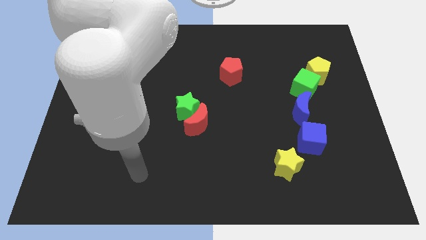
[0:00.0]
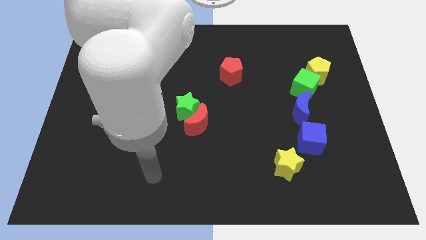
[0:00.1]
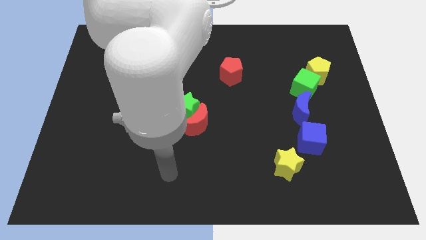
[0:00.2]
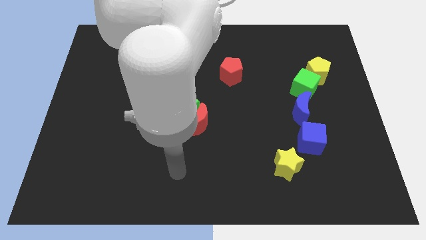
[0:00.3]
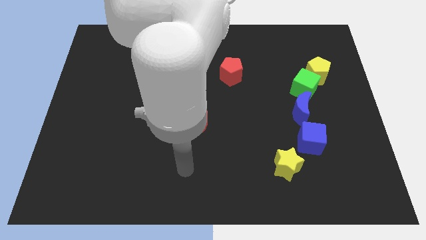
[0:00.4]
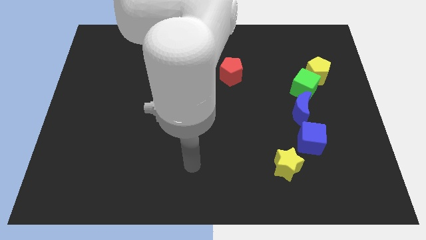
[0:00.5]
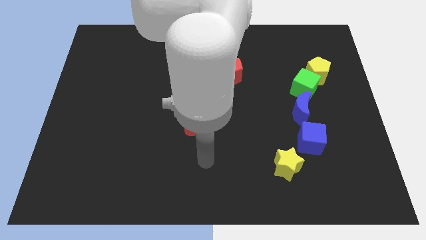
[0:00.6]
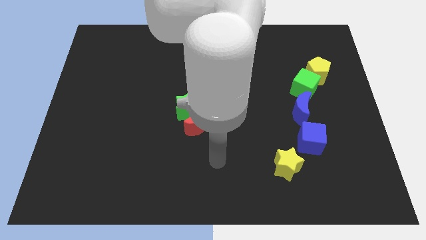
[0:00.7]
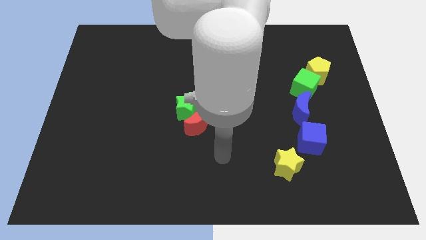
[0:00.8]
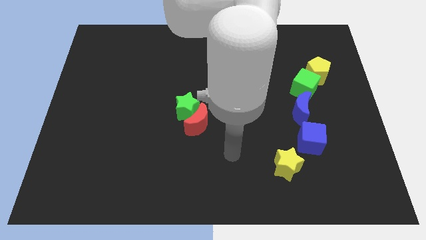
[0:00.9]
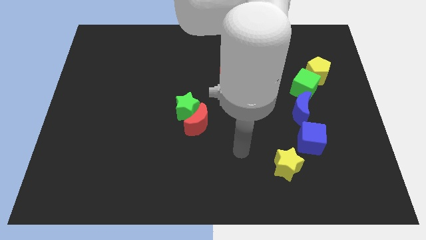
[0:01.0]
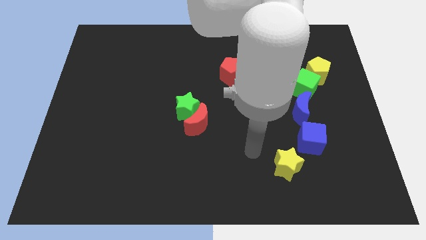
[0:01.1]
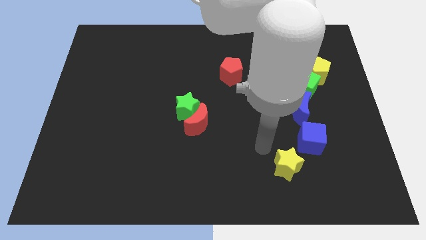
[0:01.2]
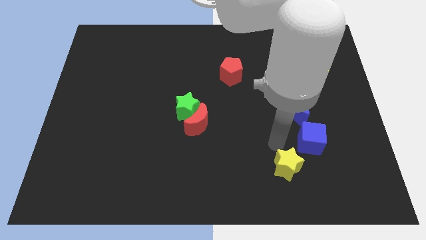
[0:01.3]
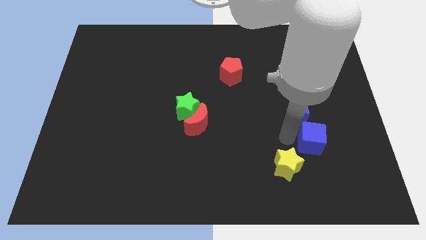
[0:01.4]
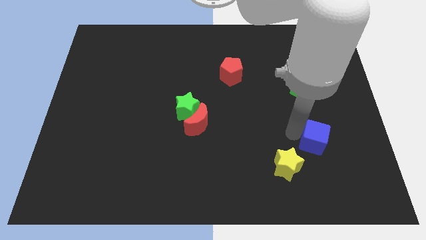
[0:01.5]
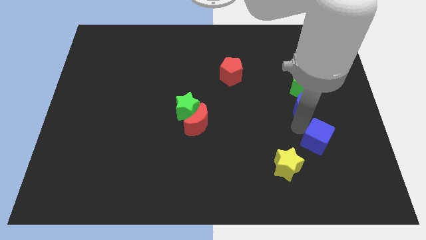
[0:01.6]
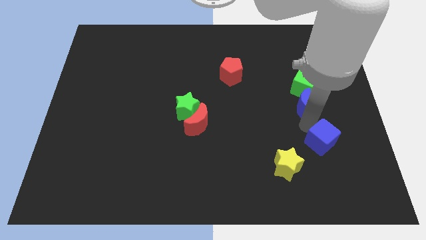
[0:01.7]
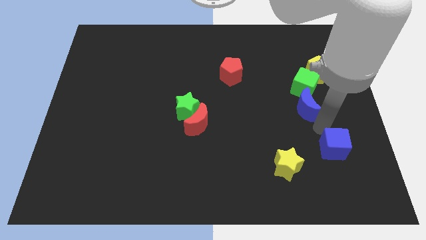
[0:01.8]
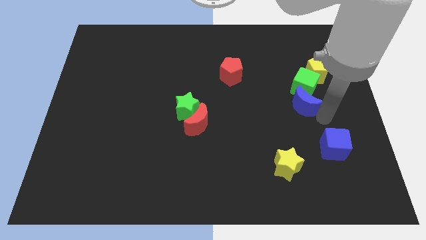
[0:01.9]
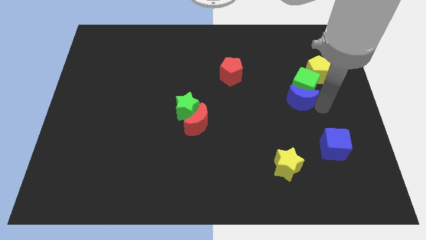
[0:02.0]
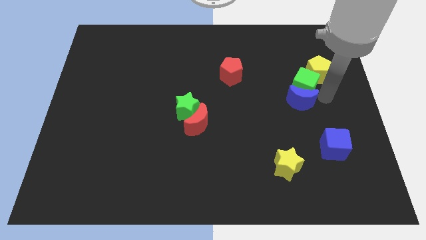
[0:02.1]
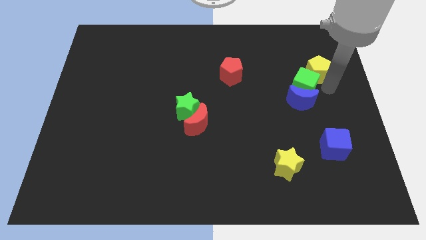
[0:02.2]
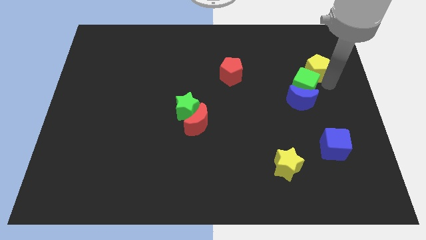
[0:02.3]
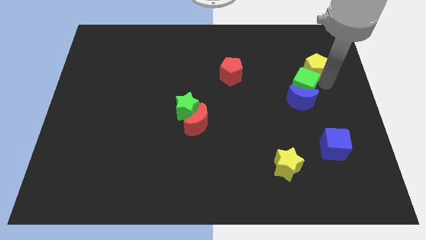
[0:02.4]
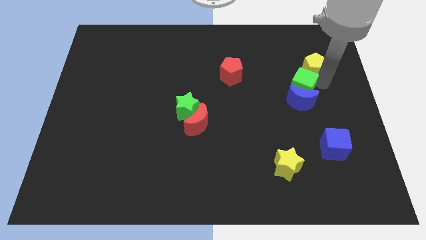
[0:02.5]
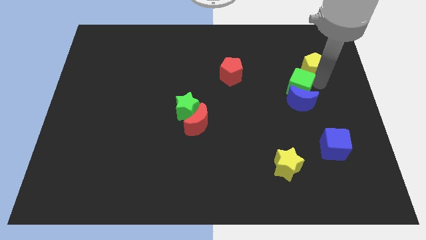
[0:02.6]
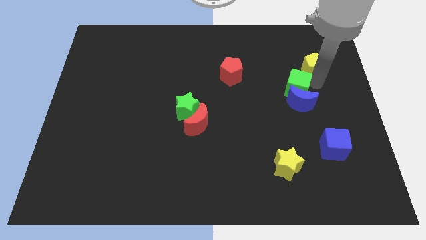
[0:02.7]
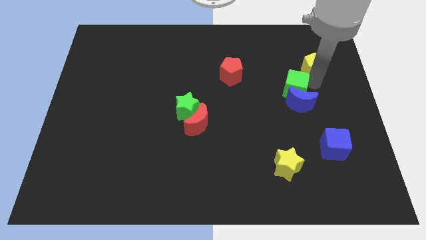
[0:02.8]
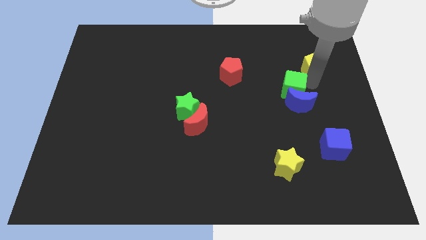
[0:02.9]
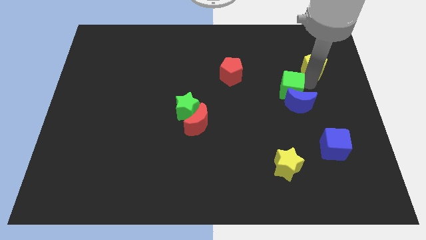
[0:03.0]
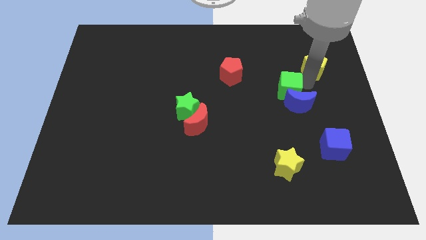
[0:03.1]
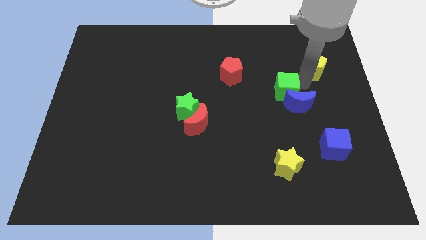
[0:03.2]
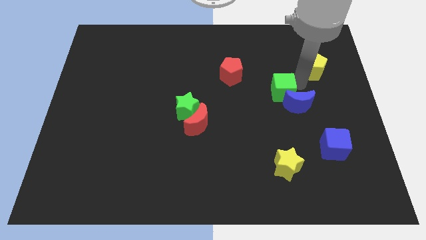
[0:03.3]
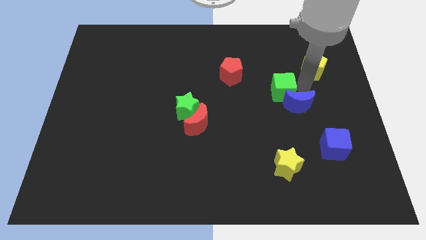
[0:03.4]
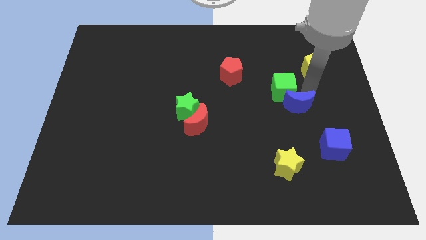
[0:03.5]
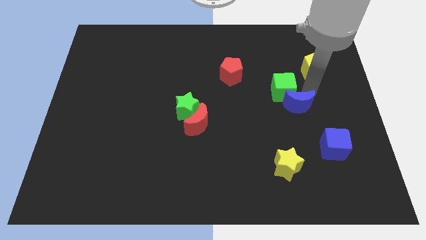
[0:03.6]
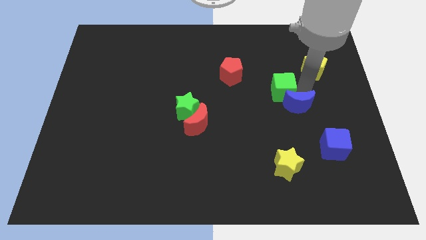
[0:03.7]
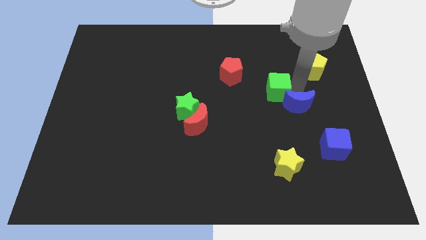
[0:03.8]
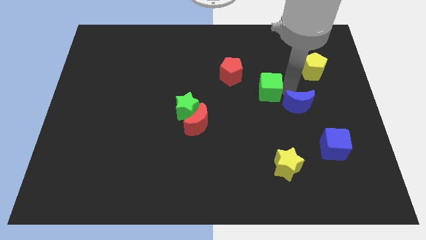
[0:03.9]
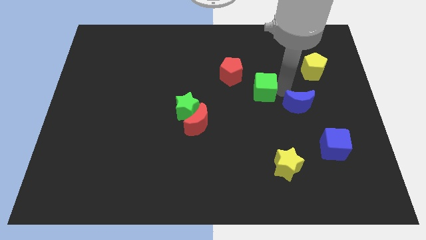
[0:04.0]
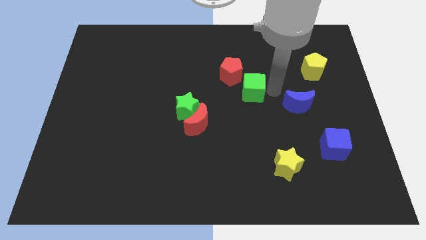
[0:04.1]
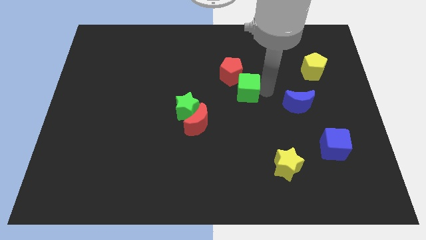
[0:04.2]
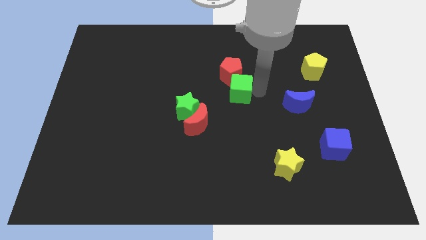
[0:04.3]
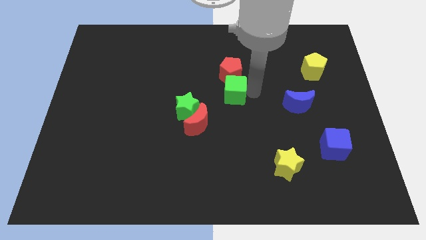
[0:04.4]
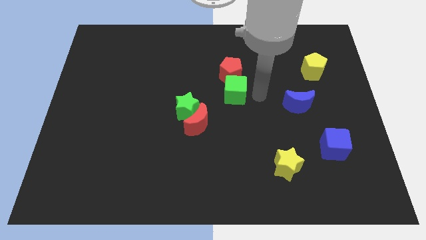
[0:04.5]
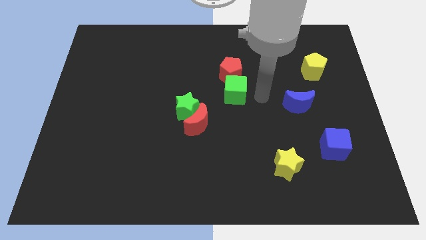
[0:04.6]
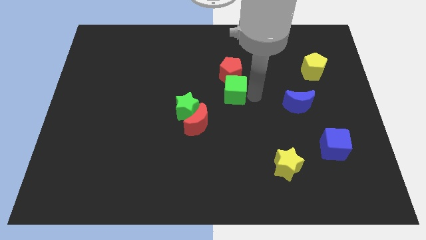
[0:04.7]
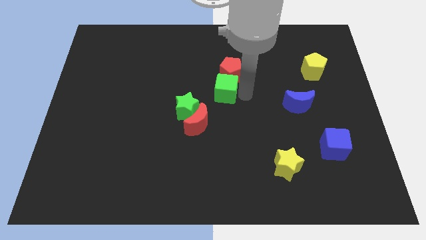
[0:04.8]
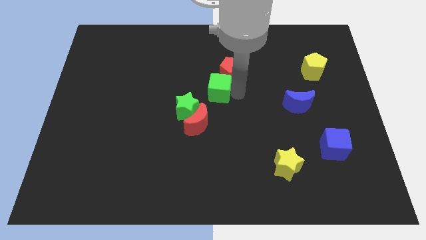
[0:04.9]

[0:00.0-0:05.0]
push the green cube left

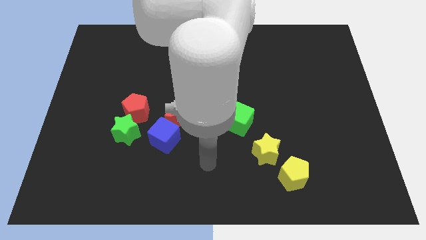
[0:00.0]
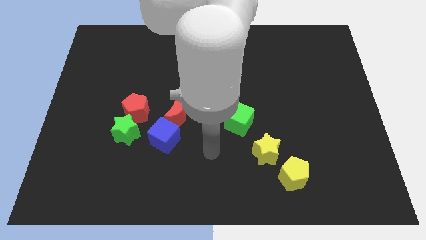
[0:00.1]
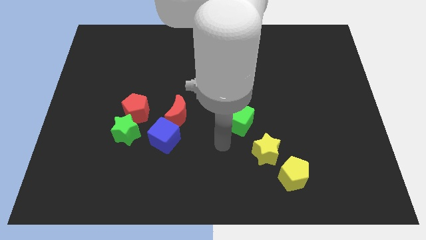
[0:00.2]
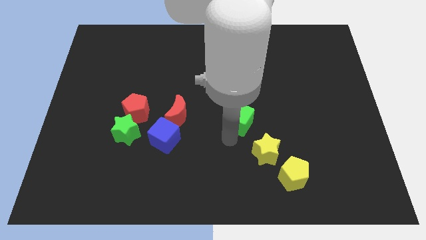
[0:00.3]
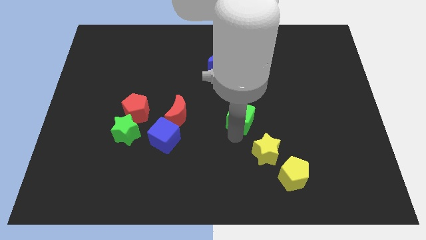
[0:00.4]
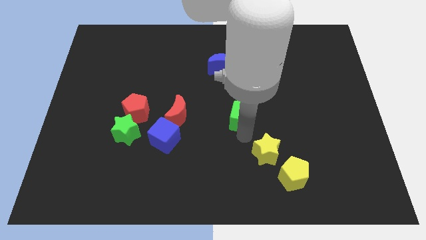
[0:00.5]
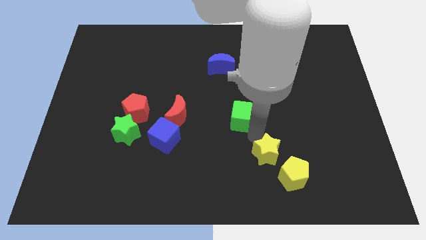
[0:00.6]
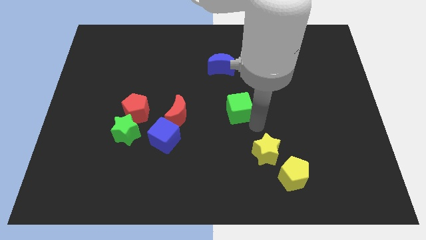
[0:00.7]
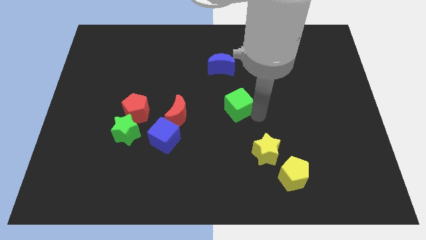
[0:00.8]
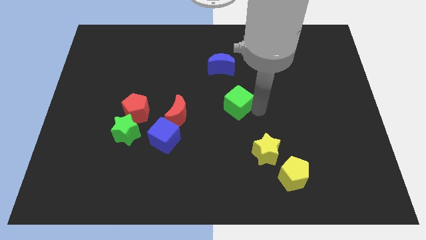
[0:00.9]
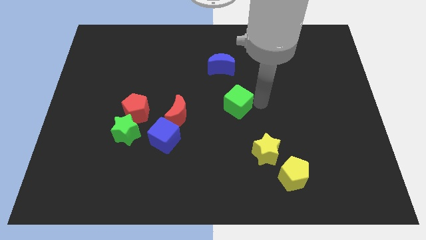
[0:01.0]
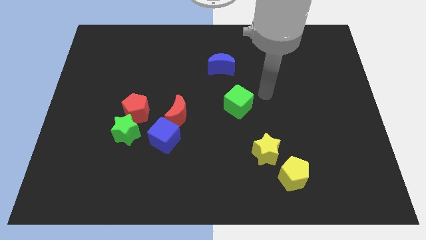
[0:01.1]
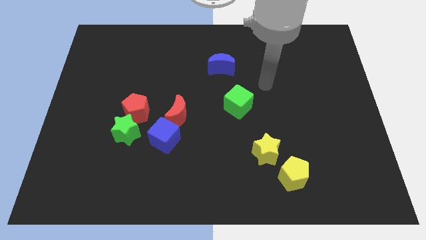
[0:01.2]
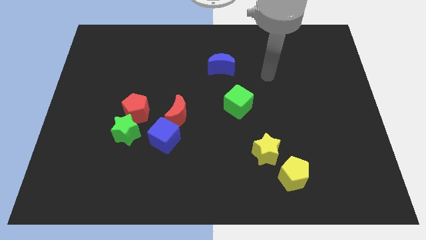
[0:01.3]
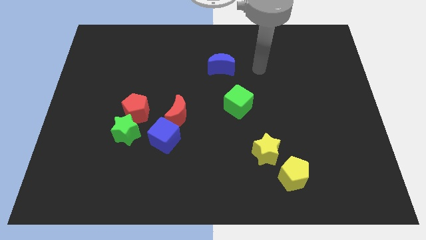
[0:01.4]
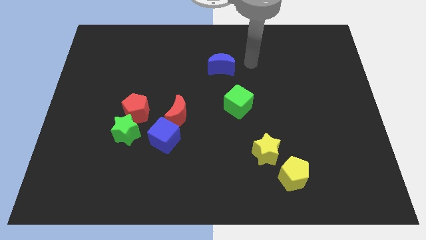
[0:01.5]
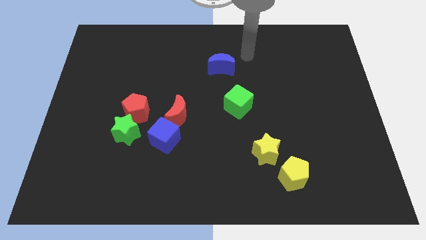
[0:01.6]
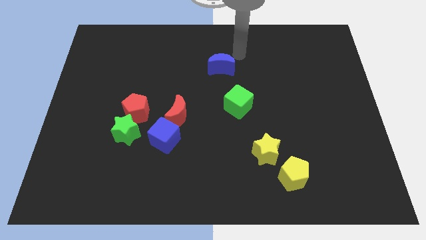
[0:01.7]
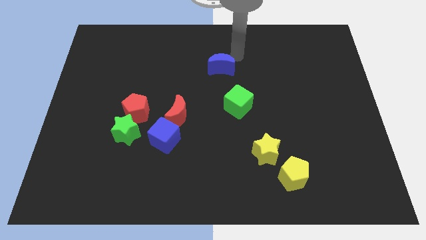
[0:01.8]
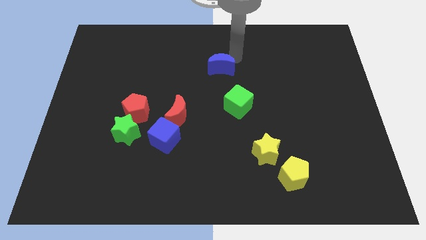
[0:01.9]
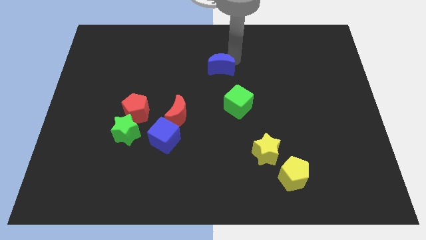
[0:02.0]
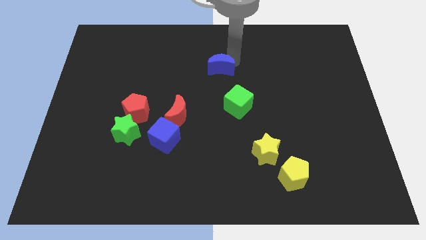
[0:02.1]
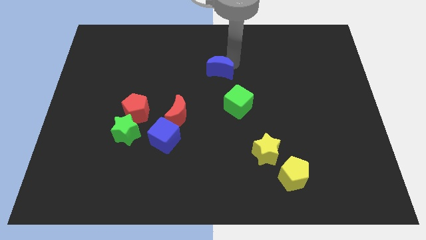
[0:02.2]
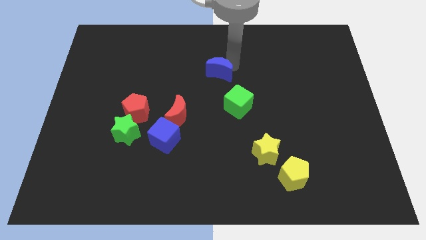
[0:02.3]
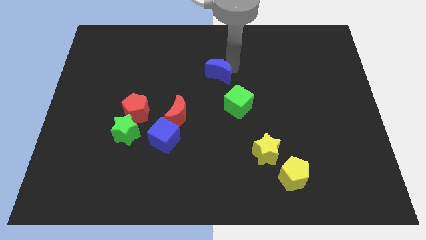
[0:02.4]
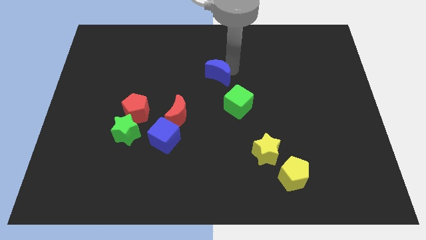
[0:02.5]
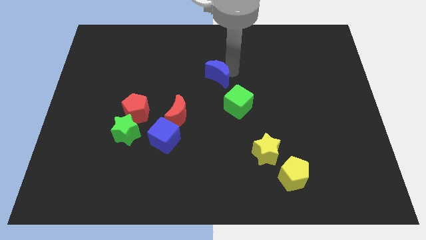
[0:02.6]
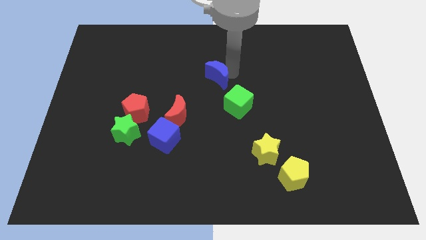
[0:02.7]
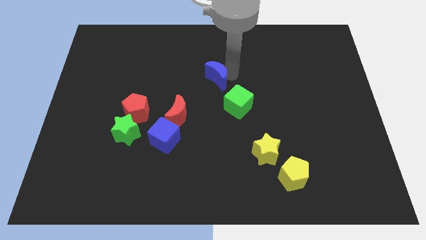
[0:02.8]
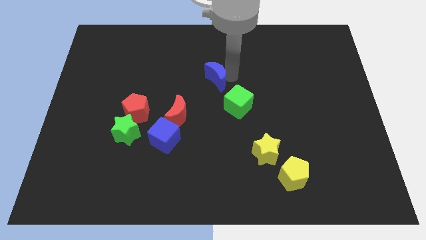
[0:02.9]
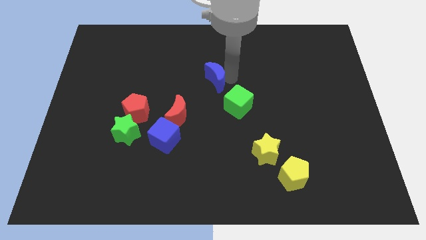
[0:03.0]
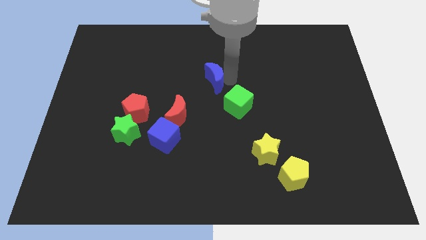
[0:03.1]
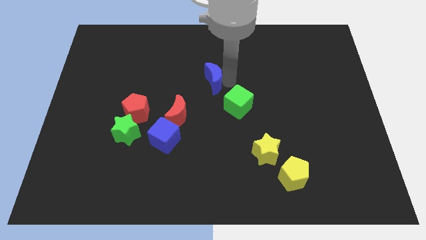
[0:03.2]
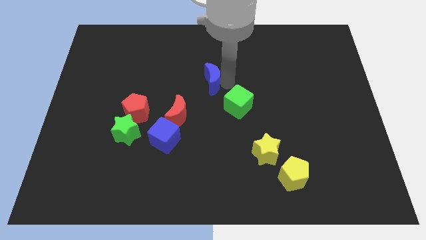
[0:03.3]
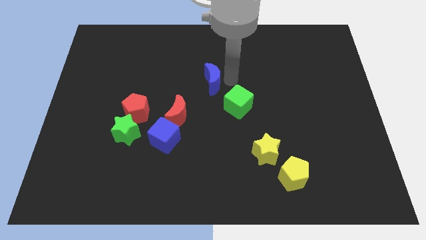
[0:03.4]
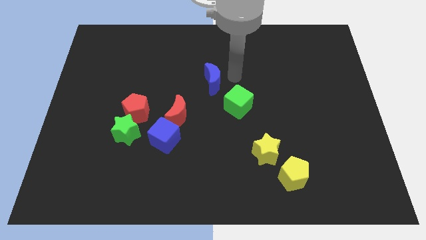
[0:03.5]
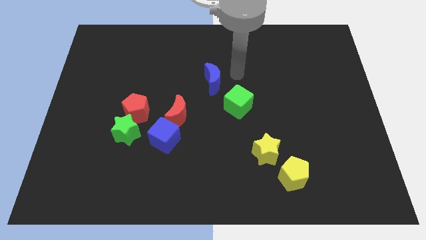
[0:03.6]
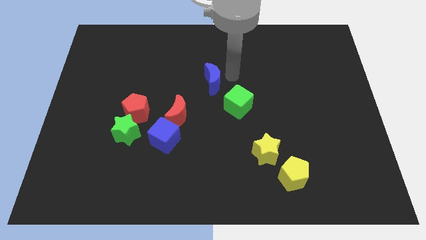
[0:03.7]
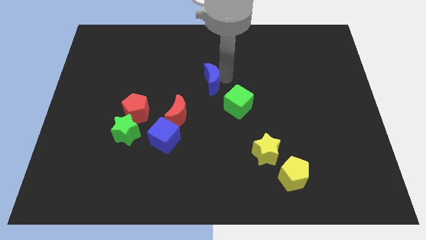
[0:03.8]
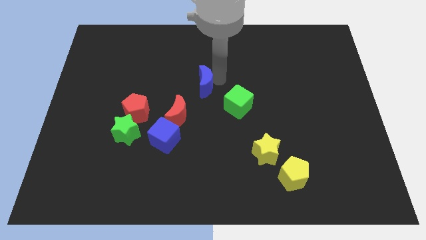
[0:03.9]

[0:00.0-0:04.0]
slightly slide the blue moon down and to the left
